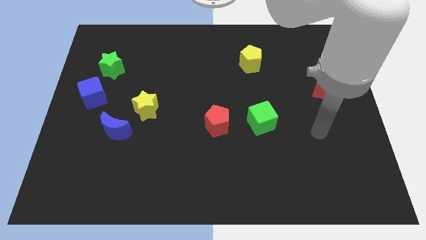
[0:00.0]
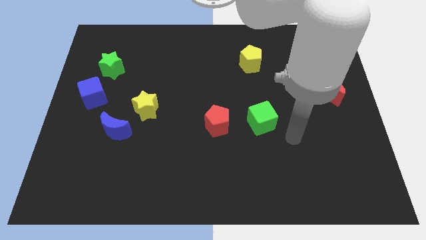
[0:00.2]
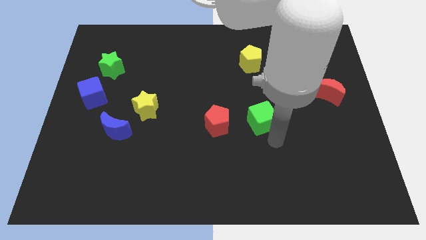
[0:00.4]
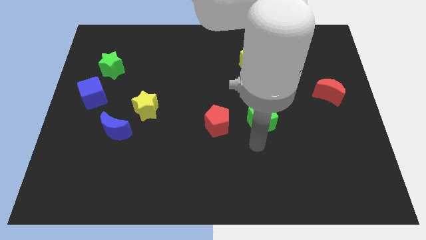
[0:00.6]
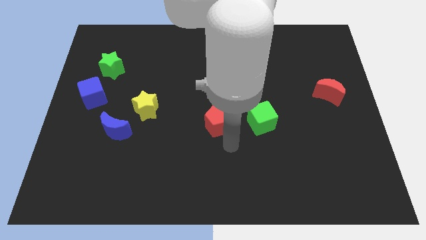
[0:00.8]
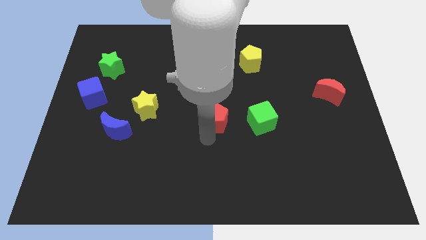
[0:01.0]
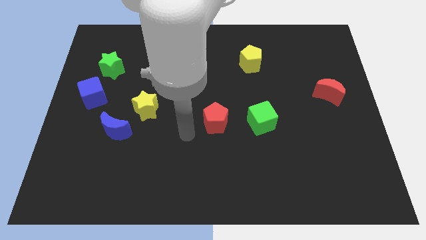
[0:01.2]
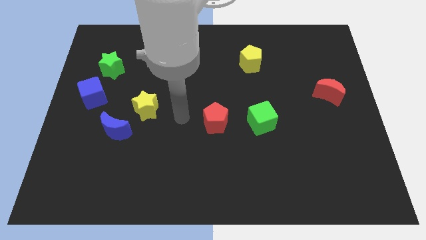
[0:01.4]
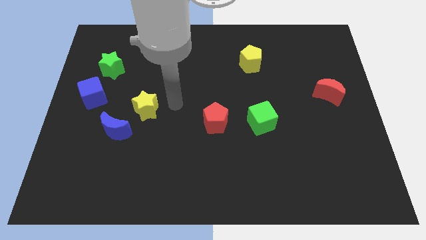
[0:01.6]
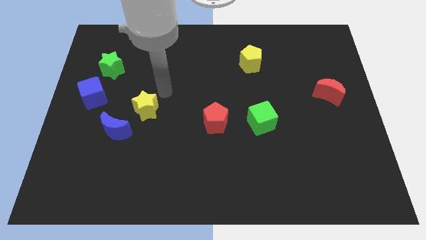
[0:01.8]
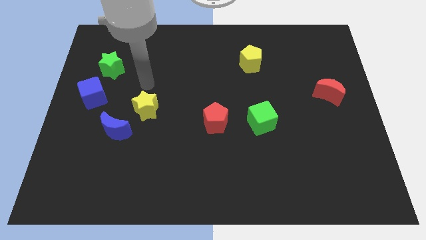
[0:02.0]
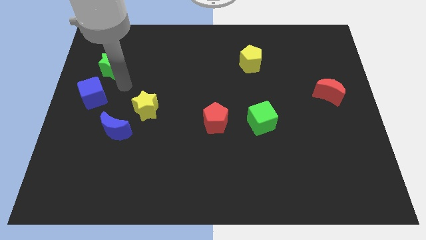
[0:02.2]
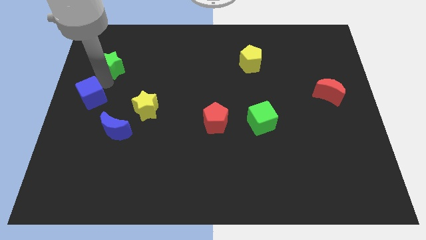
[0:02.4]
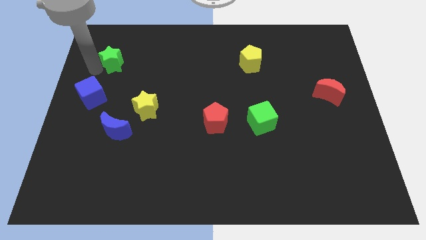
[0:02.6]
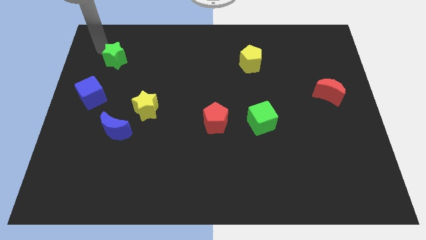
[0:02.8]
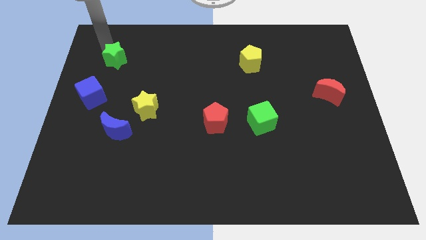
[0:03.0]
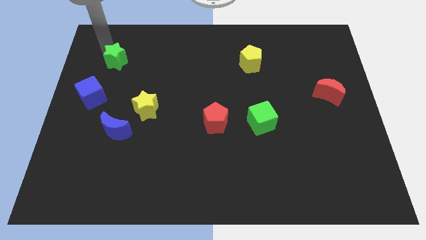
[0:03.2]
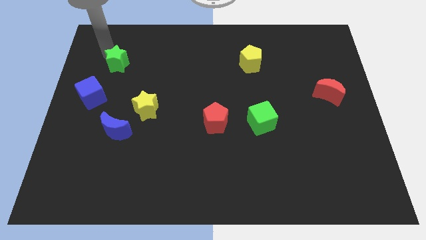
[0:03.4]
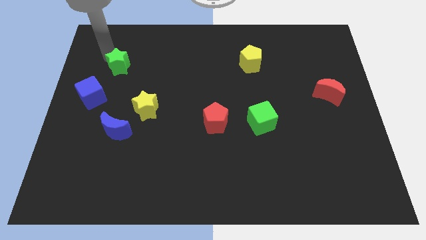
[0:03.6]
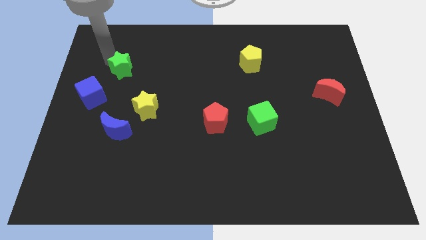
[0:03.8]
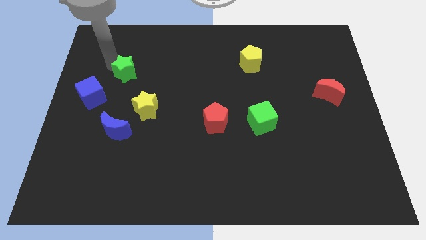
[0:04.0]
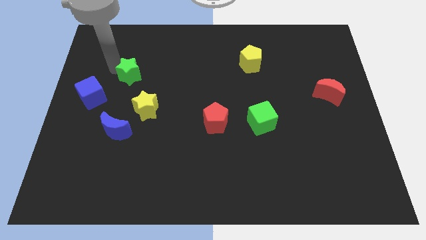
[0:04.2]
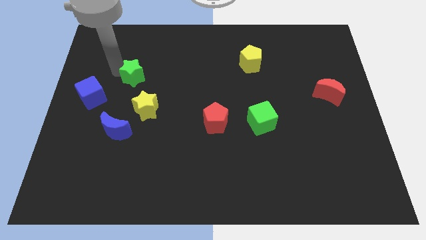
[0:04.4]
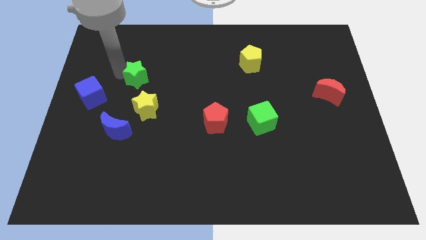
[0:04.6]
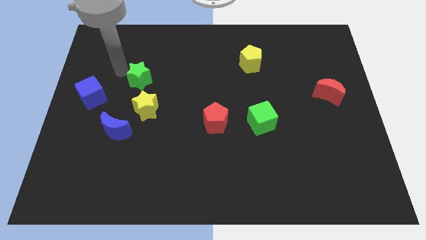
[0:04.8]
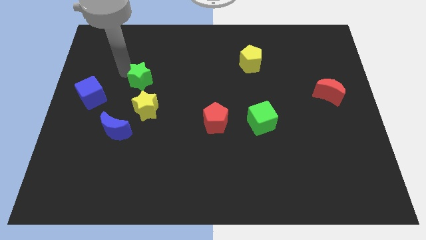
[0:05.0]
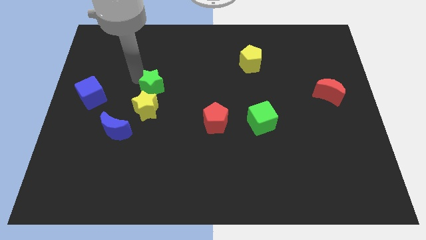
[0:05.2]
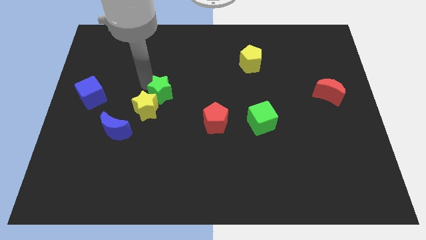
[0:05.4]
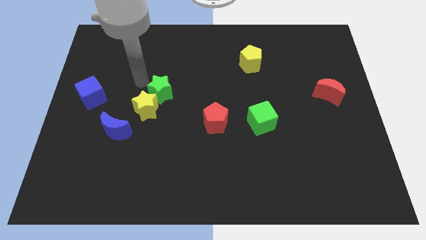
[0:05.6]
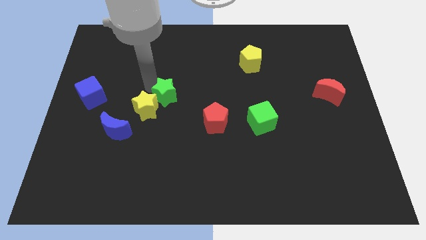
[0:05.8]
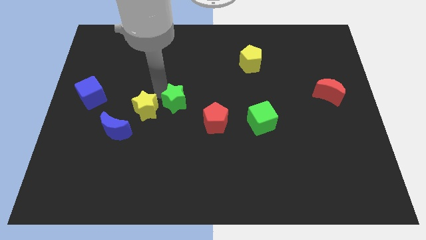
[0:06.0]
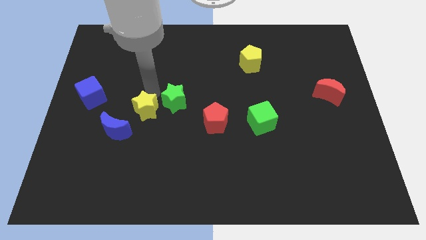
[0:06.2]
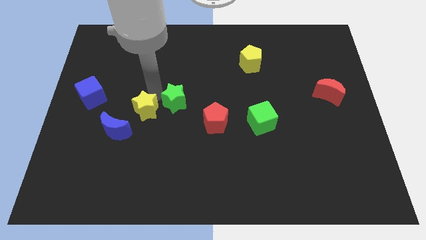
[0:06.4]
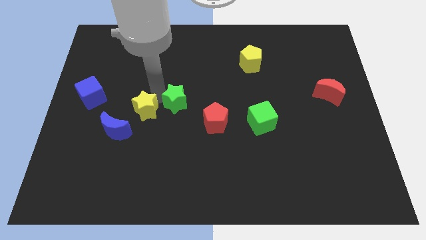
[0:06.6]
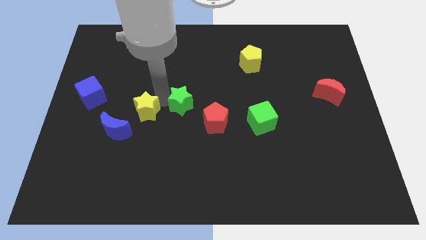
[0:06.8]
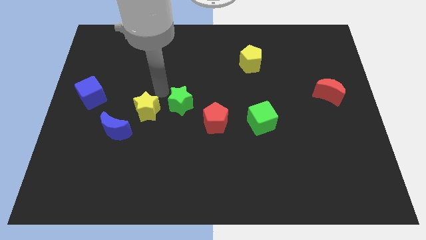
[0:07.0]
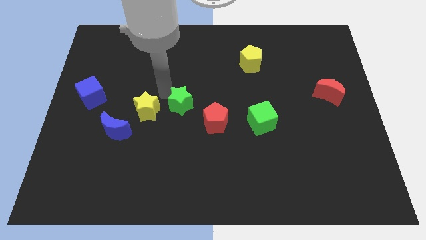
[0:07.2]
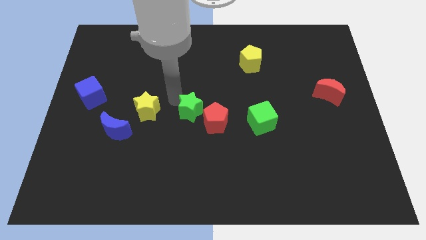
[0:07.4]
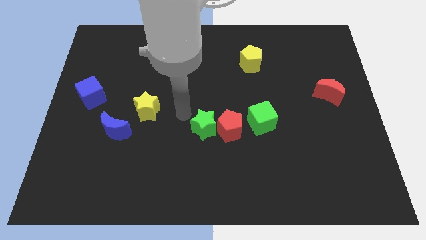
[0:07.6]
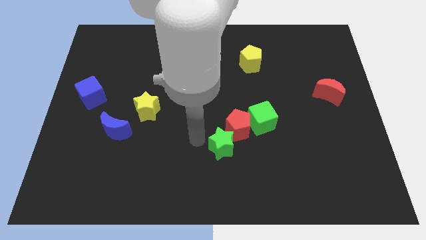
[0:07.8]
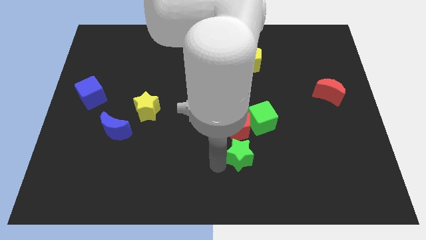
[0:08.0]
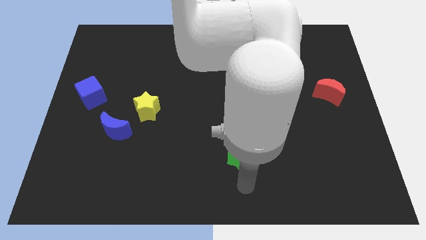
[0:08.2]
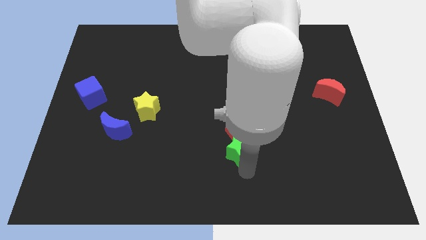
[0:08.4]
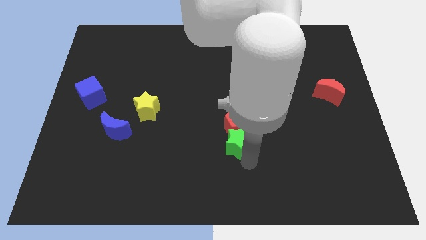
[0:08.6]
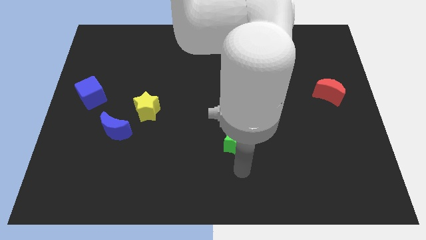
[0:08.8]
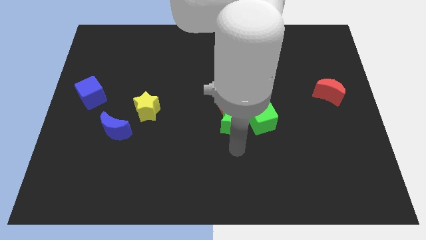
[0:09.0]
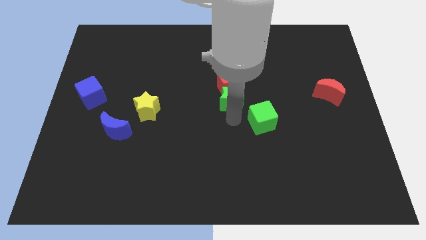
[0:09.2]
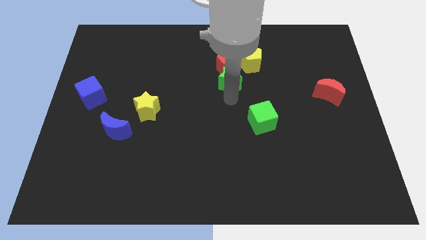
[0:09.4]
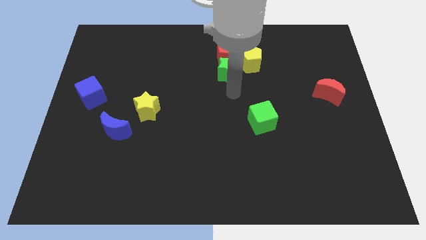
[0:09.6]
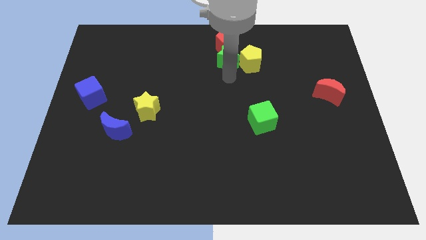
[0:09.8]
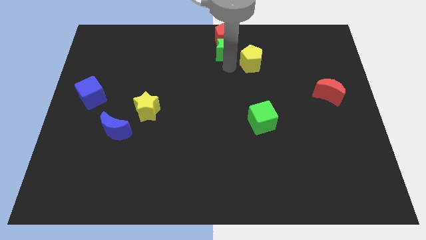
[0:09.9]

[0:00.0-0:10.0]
slide the green star to the top side
